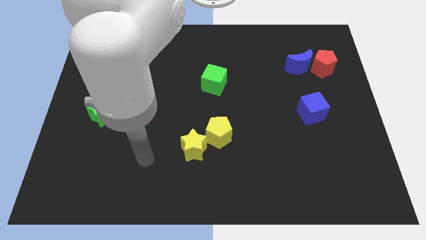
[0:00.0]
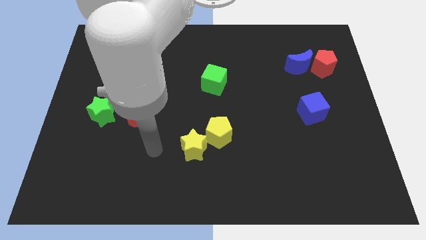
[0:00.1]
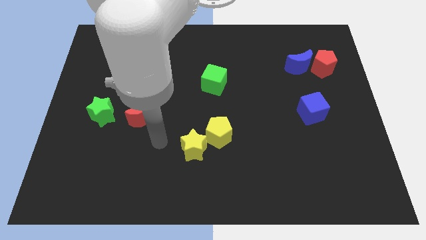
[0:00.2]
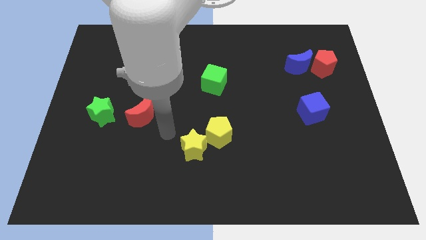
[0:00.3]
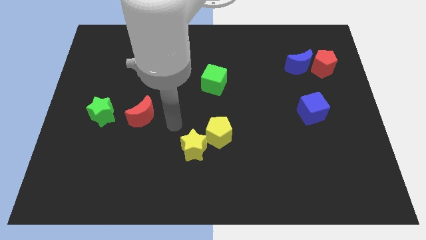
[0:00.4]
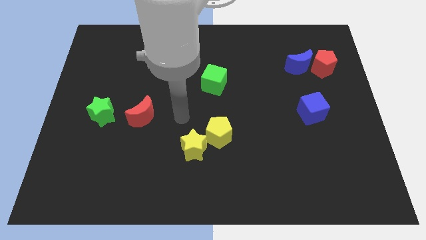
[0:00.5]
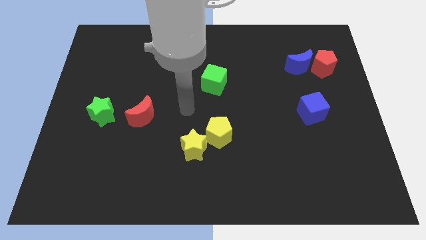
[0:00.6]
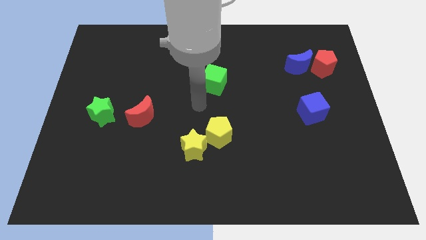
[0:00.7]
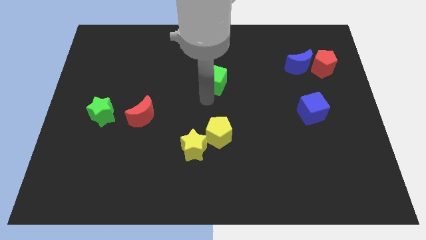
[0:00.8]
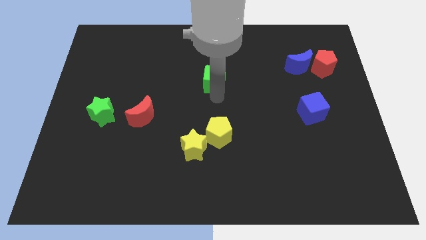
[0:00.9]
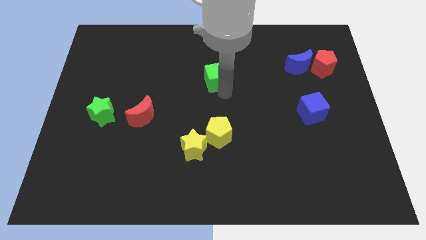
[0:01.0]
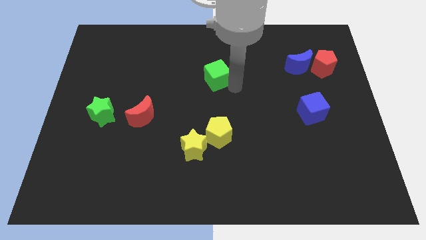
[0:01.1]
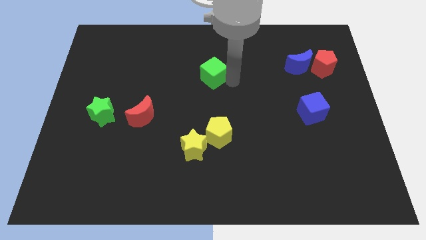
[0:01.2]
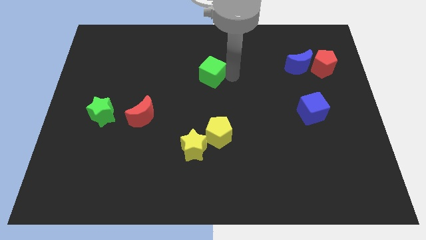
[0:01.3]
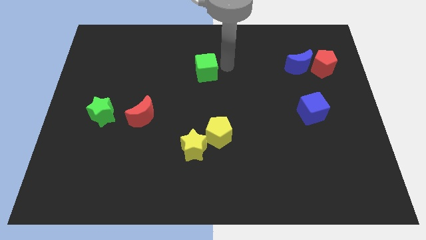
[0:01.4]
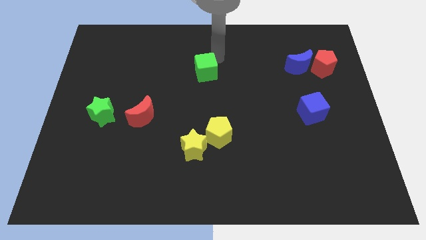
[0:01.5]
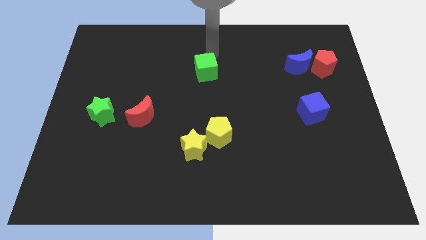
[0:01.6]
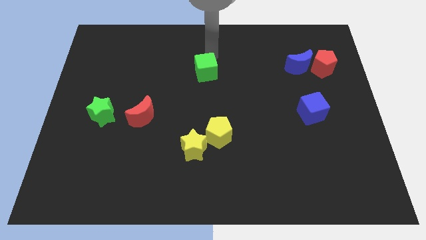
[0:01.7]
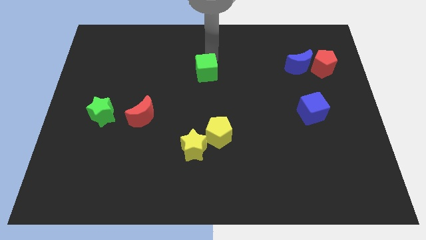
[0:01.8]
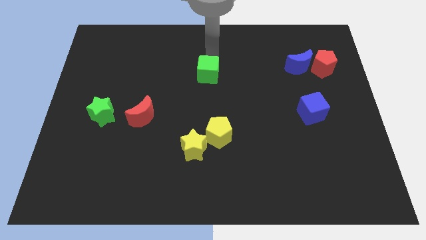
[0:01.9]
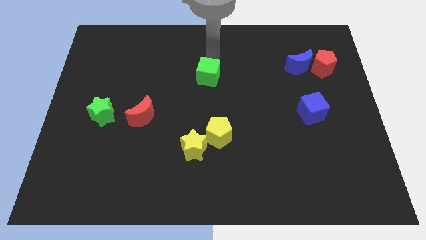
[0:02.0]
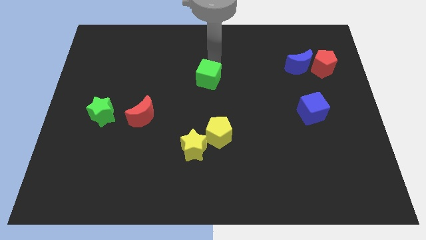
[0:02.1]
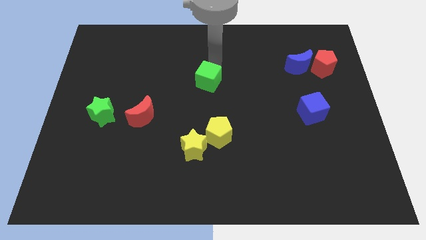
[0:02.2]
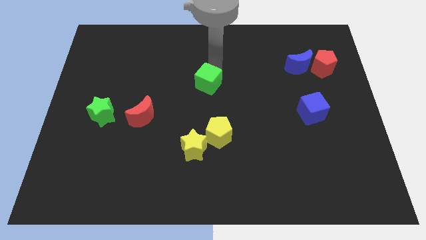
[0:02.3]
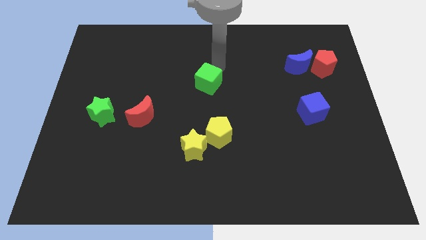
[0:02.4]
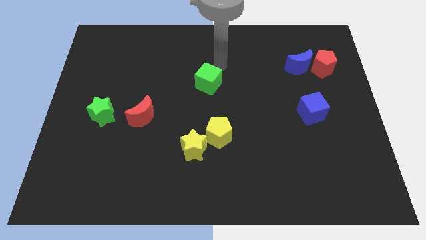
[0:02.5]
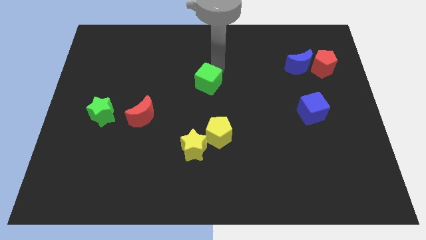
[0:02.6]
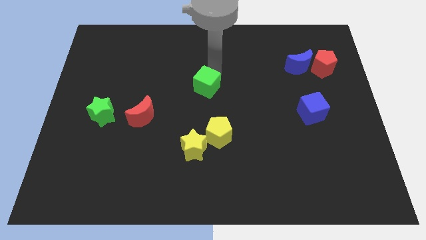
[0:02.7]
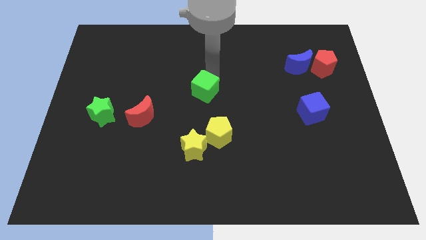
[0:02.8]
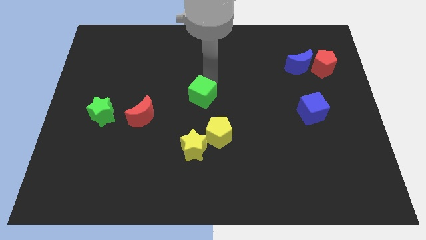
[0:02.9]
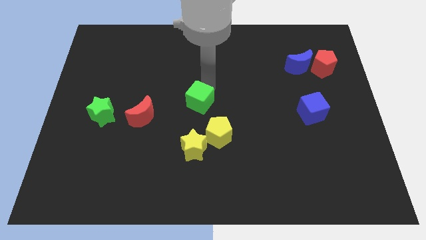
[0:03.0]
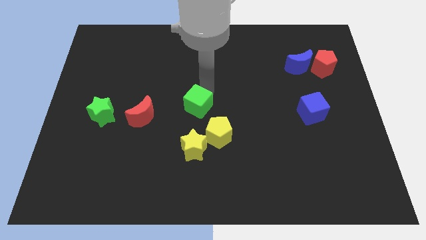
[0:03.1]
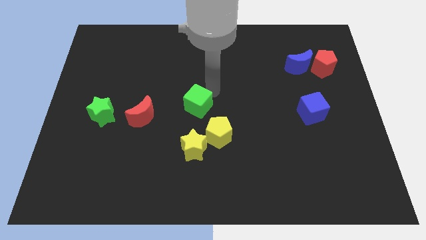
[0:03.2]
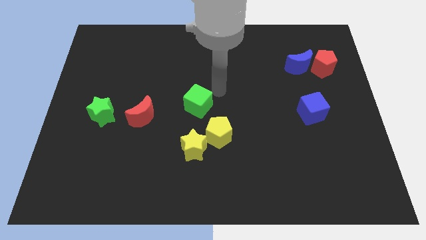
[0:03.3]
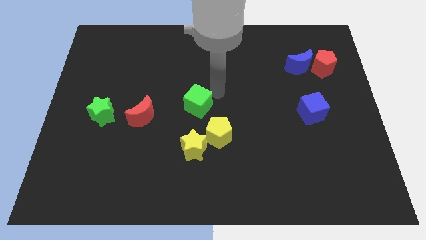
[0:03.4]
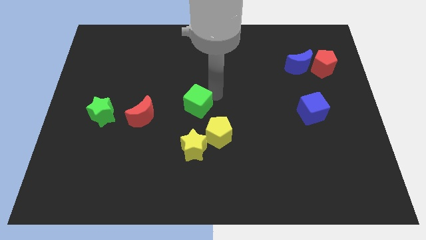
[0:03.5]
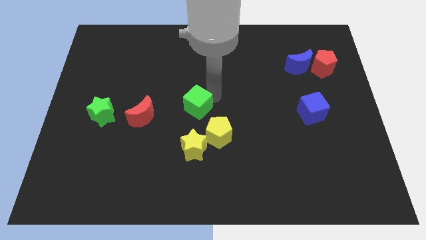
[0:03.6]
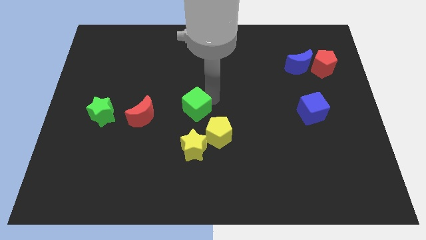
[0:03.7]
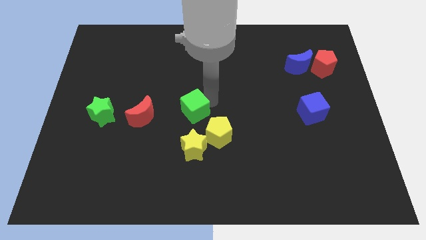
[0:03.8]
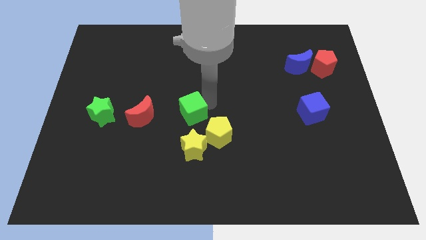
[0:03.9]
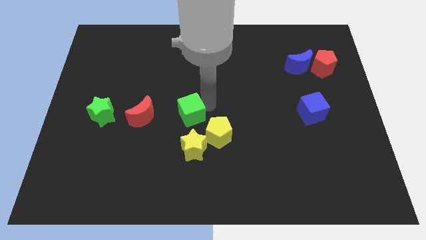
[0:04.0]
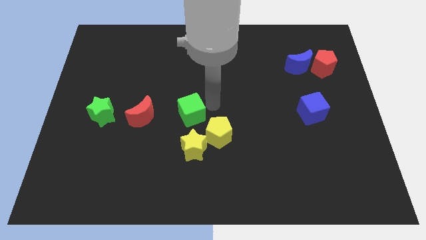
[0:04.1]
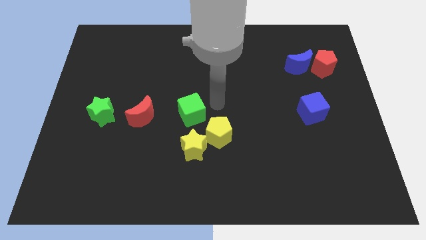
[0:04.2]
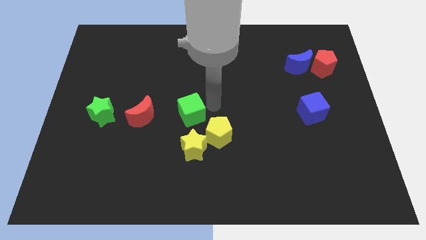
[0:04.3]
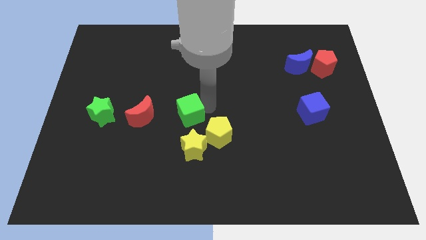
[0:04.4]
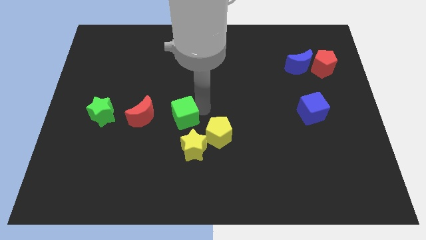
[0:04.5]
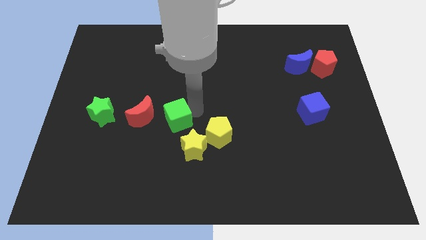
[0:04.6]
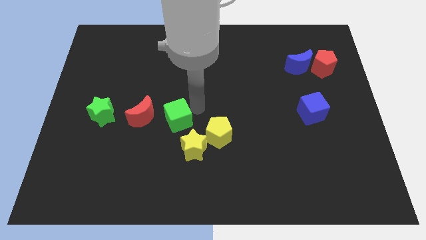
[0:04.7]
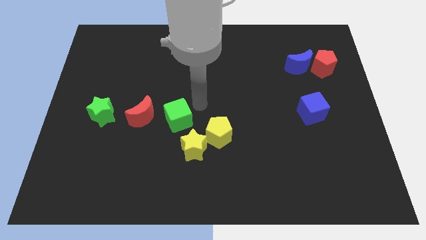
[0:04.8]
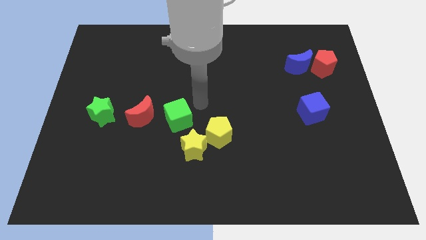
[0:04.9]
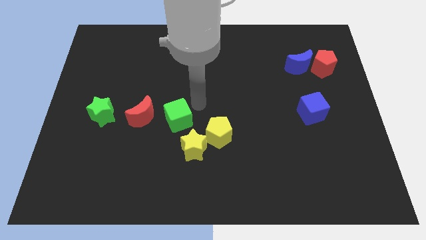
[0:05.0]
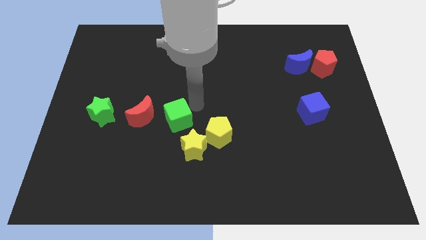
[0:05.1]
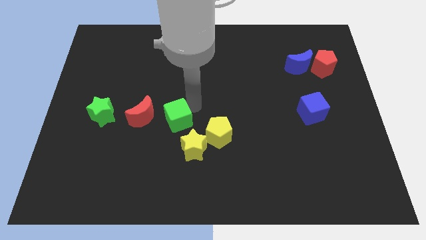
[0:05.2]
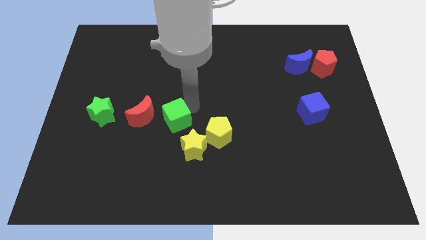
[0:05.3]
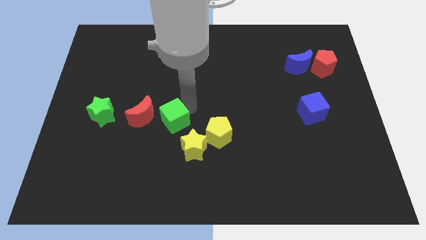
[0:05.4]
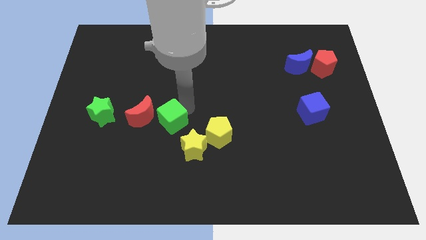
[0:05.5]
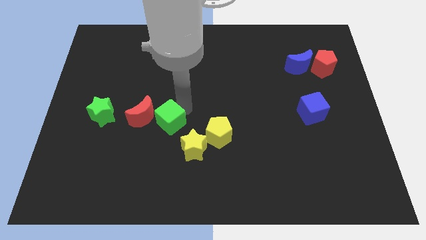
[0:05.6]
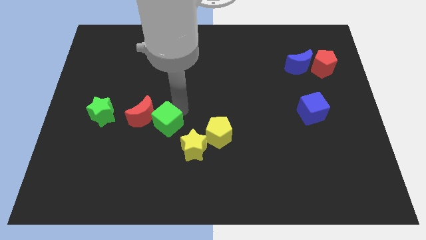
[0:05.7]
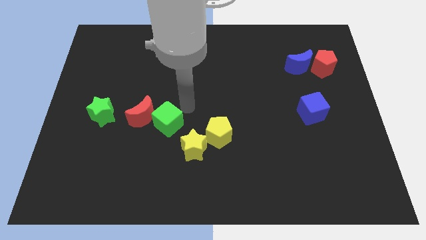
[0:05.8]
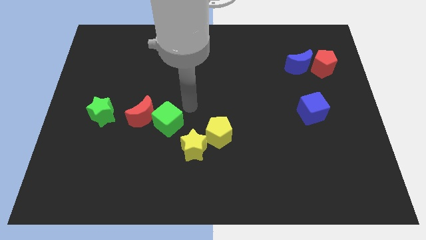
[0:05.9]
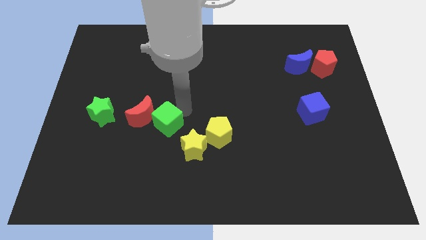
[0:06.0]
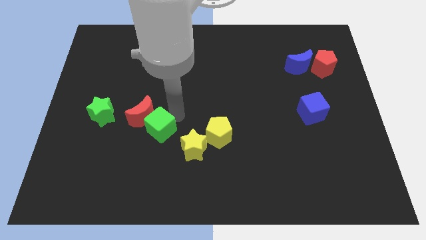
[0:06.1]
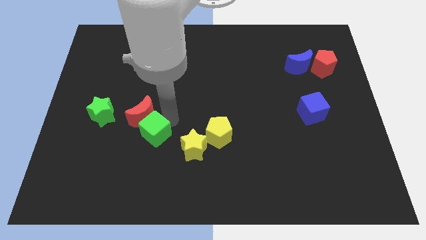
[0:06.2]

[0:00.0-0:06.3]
slide the green cube down and then left

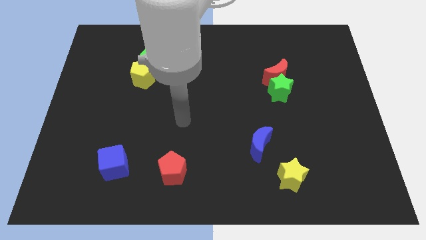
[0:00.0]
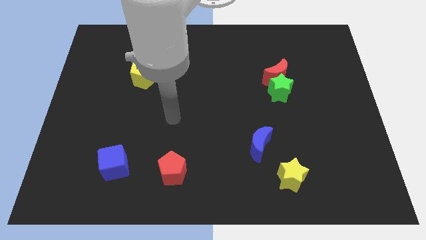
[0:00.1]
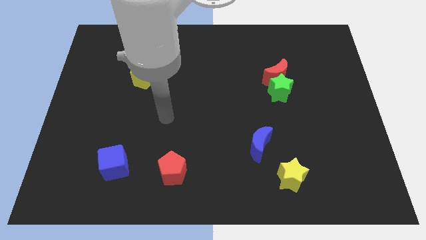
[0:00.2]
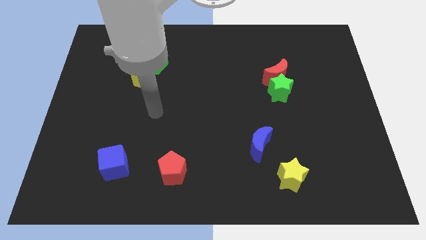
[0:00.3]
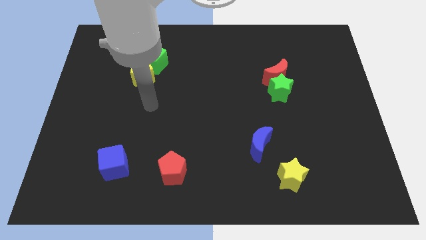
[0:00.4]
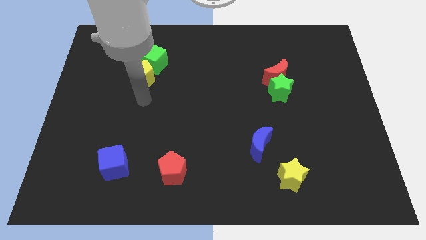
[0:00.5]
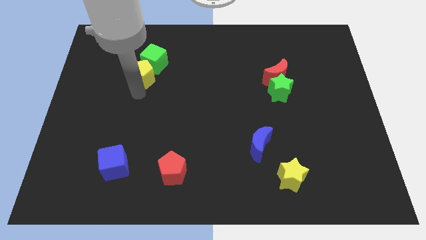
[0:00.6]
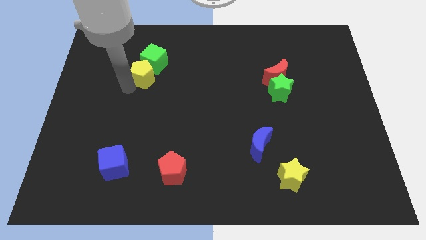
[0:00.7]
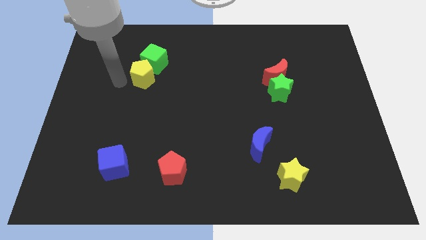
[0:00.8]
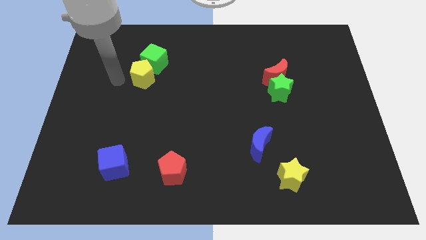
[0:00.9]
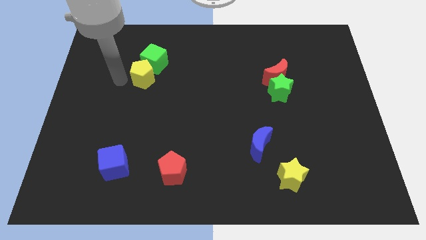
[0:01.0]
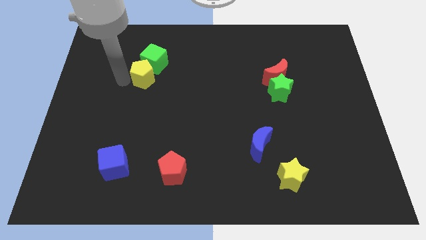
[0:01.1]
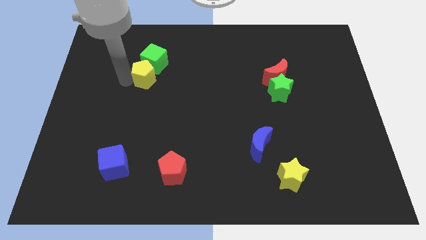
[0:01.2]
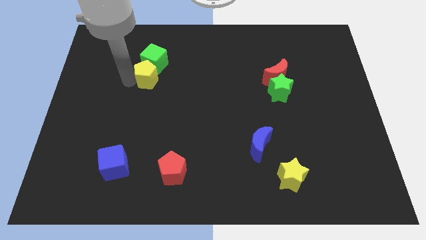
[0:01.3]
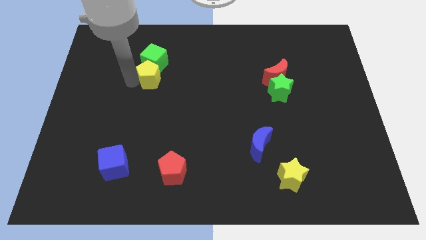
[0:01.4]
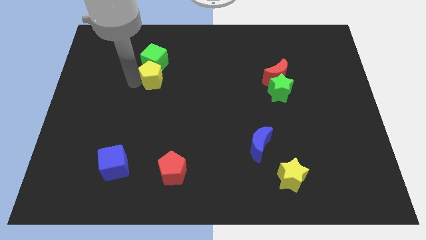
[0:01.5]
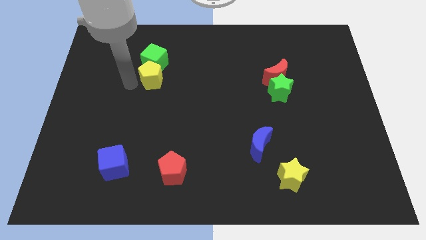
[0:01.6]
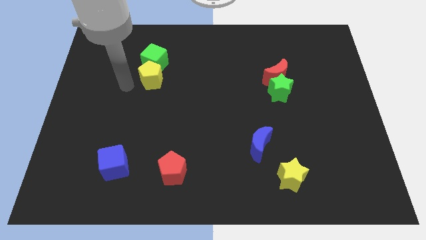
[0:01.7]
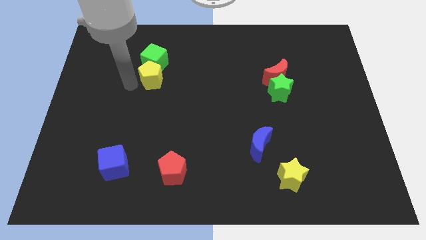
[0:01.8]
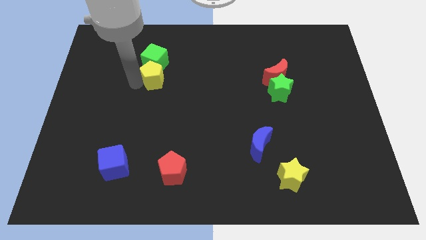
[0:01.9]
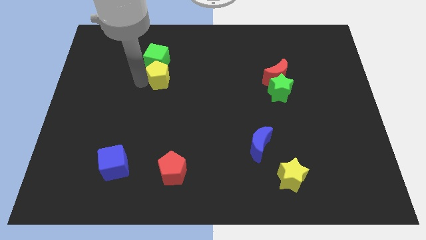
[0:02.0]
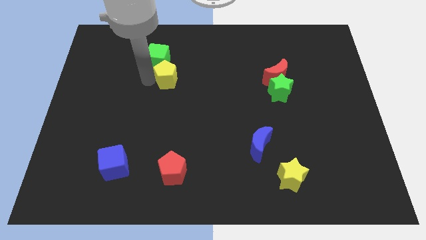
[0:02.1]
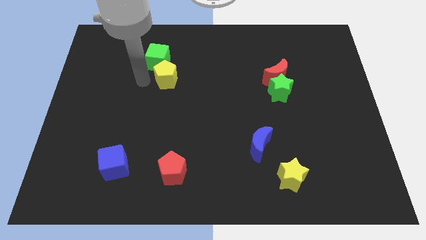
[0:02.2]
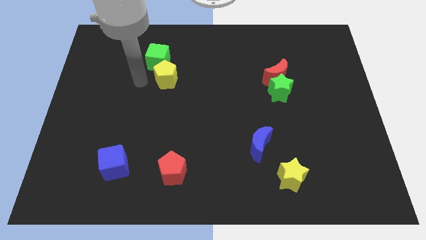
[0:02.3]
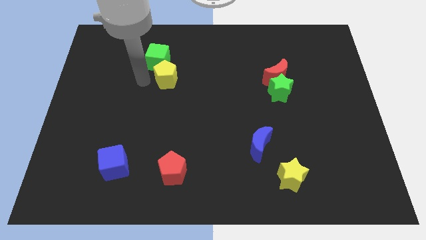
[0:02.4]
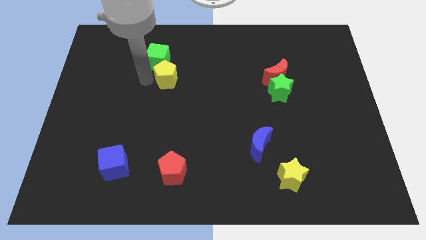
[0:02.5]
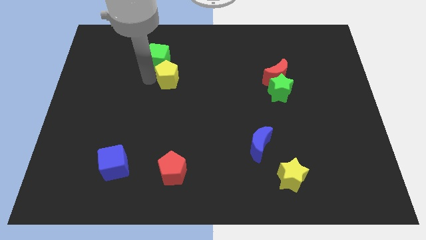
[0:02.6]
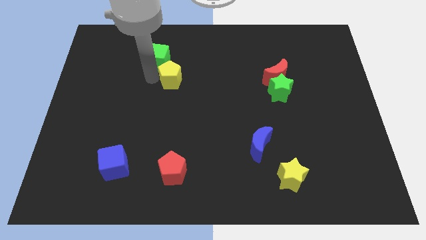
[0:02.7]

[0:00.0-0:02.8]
slightly move the yellow pentagon to the right
